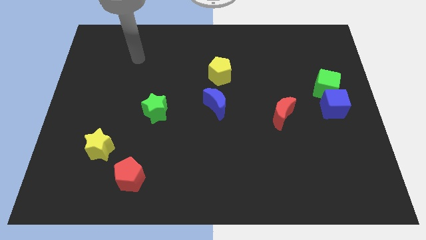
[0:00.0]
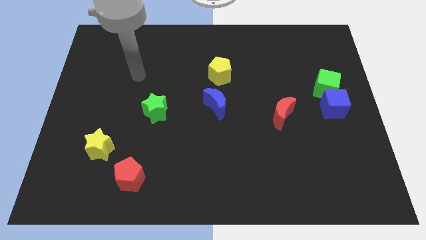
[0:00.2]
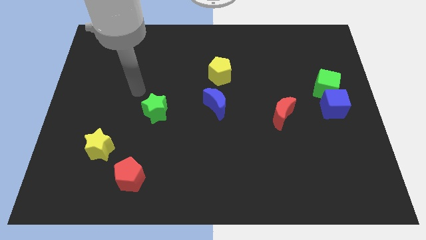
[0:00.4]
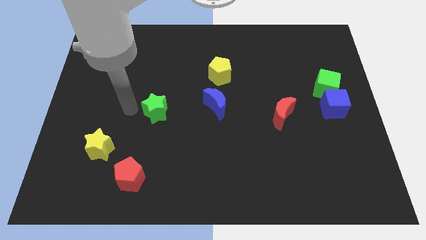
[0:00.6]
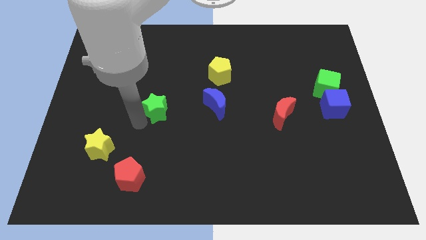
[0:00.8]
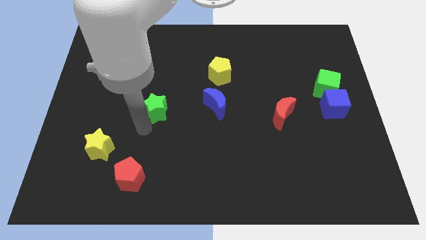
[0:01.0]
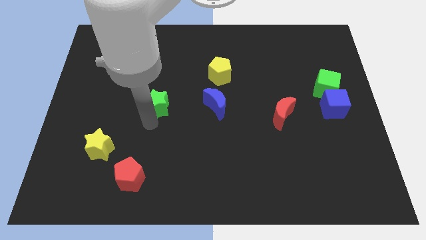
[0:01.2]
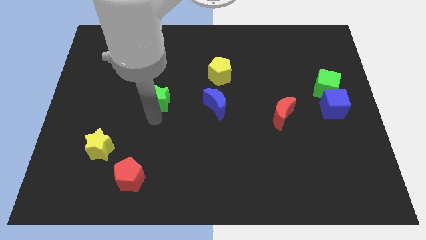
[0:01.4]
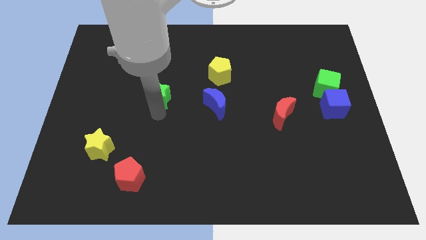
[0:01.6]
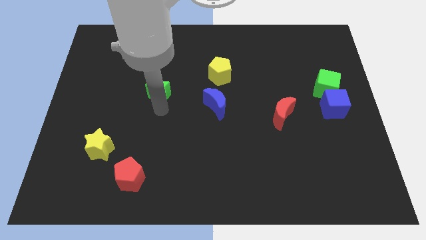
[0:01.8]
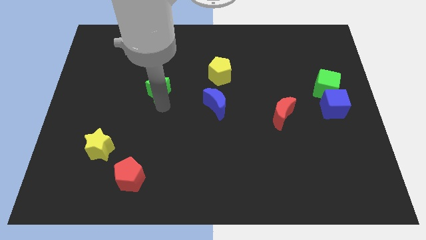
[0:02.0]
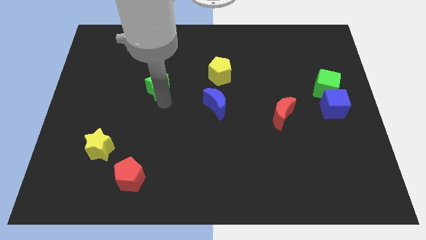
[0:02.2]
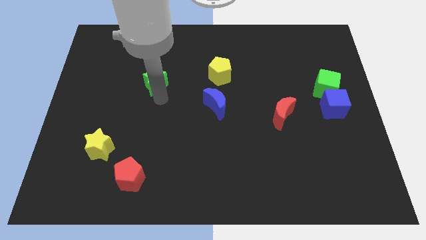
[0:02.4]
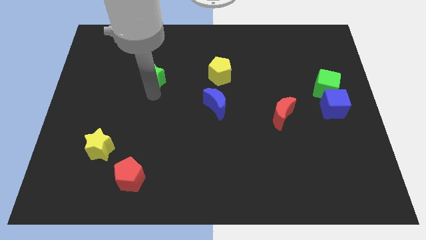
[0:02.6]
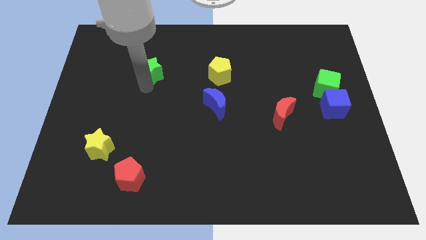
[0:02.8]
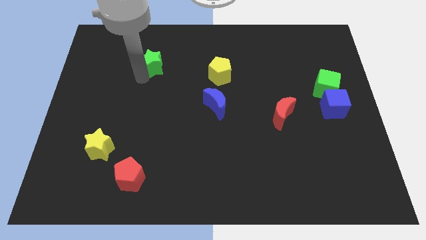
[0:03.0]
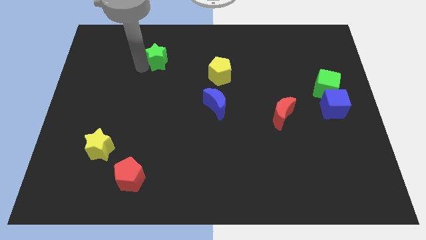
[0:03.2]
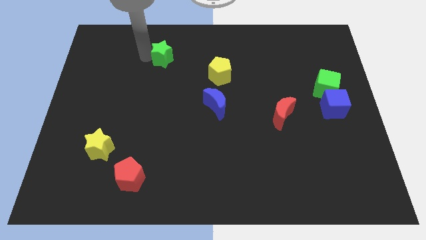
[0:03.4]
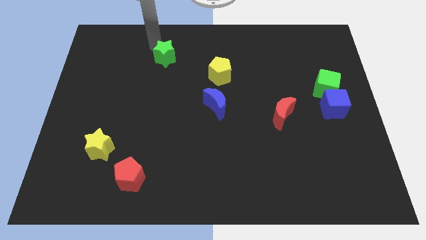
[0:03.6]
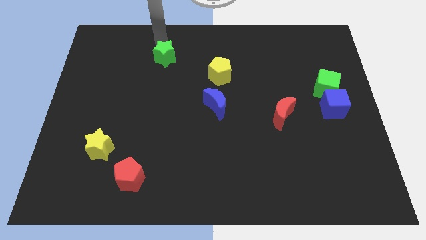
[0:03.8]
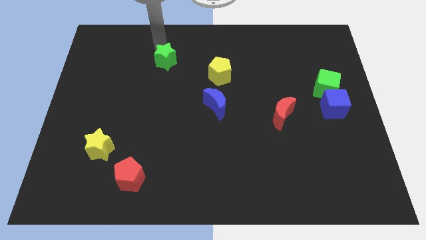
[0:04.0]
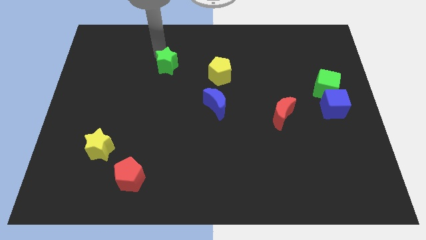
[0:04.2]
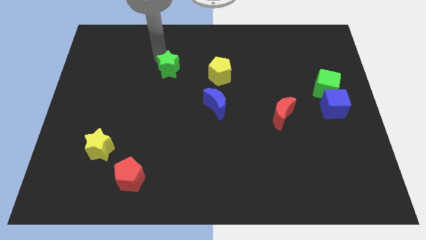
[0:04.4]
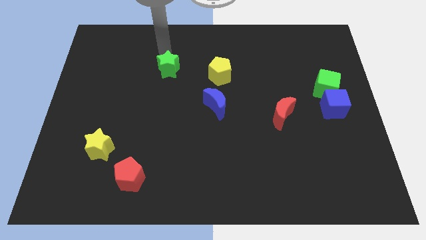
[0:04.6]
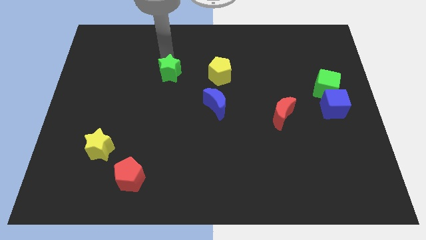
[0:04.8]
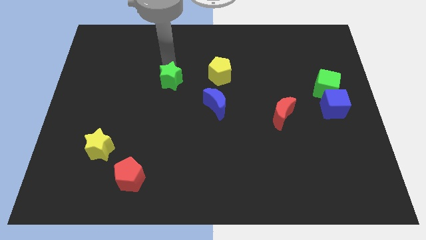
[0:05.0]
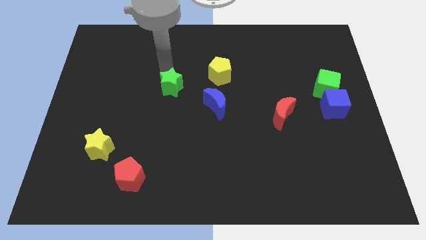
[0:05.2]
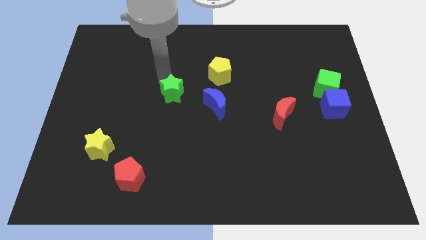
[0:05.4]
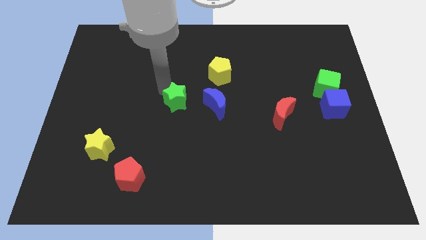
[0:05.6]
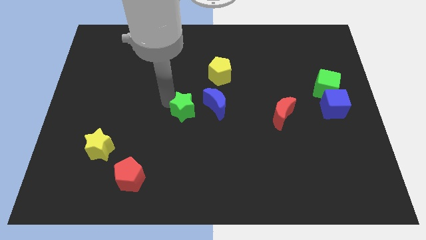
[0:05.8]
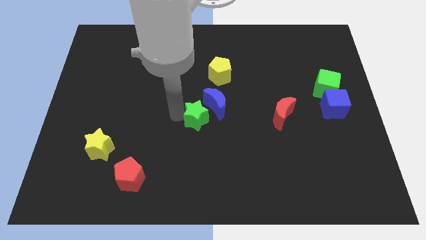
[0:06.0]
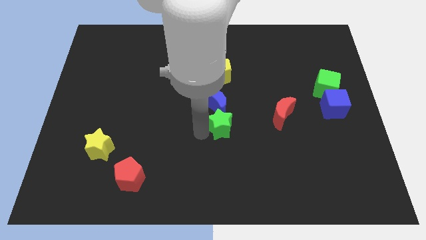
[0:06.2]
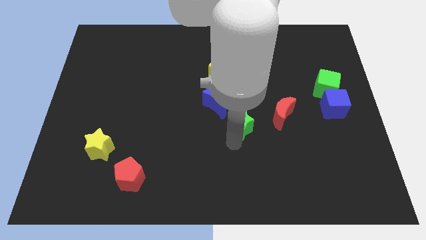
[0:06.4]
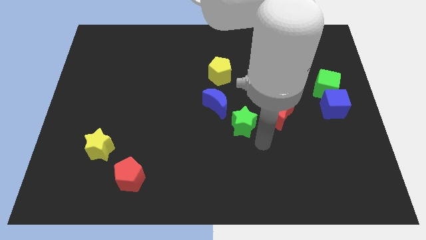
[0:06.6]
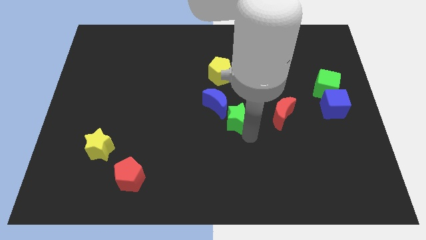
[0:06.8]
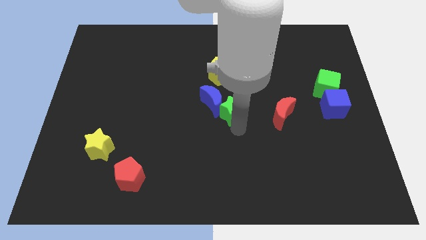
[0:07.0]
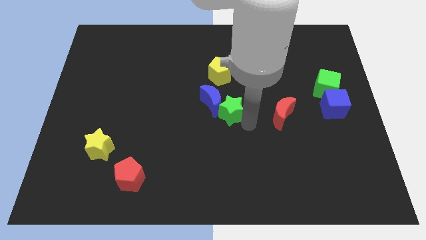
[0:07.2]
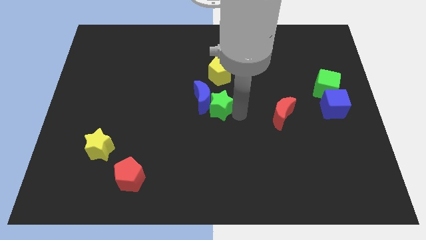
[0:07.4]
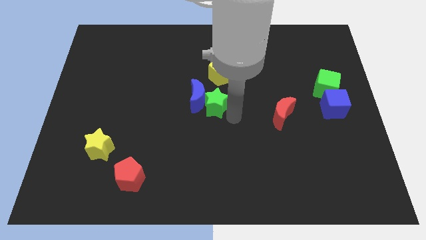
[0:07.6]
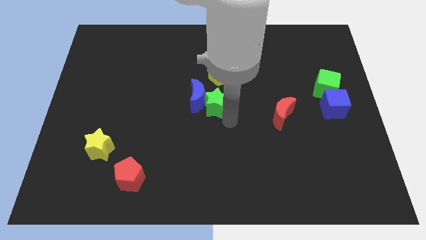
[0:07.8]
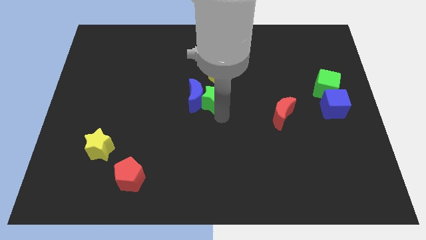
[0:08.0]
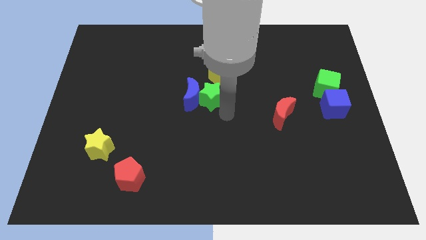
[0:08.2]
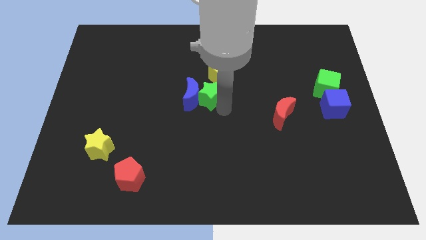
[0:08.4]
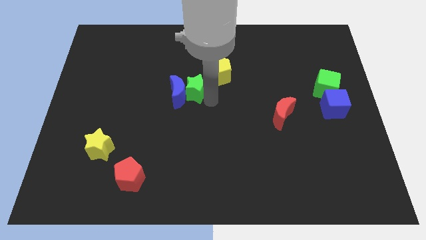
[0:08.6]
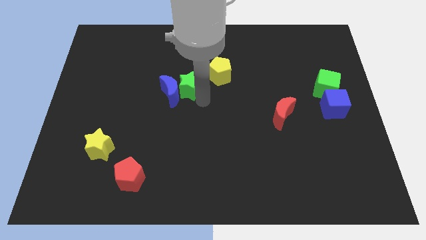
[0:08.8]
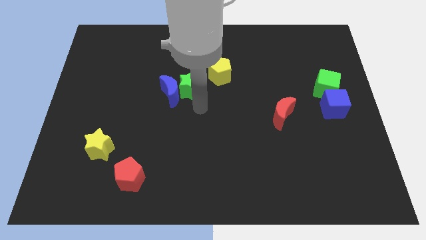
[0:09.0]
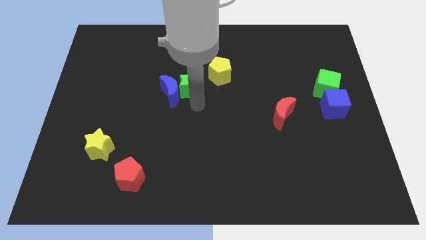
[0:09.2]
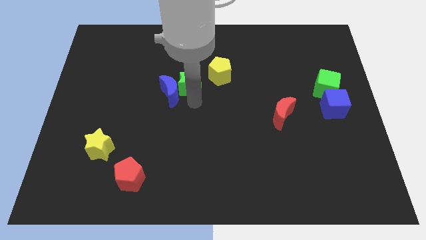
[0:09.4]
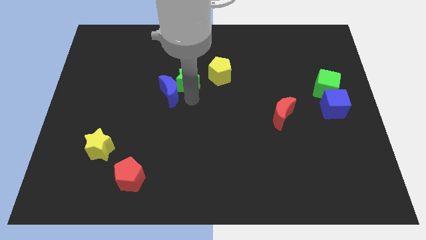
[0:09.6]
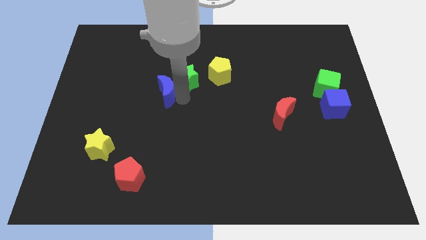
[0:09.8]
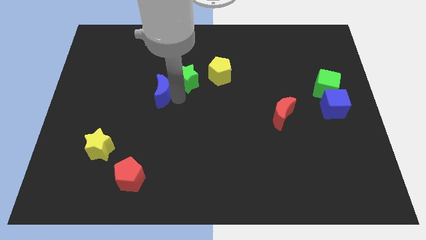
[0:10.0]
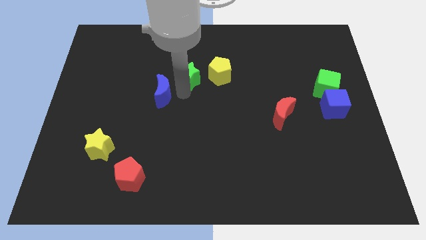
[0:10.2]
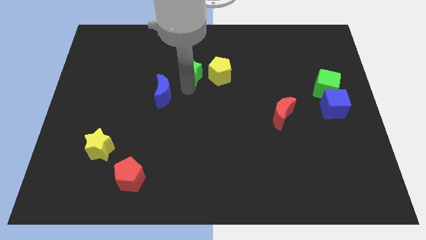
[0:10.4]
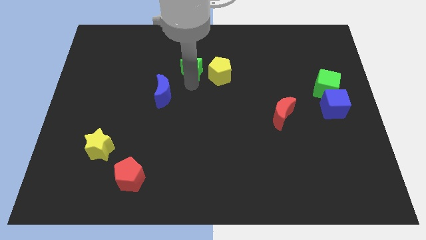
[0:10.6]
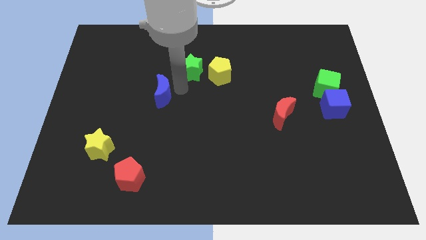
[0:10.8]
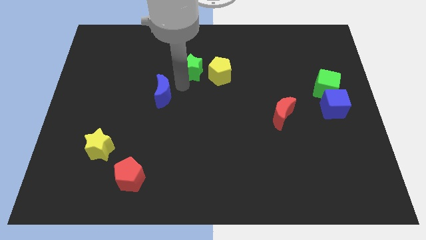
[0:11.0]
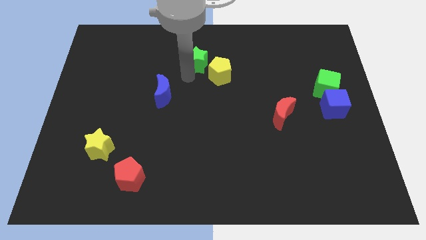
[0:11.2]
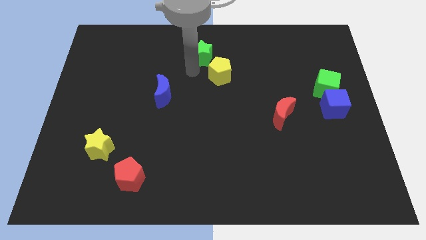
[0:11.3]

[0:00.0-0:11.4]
put the green star to the towards your base
